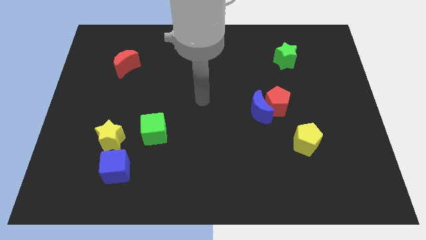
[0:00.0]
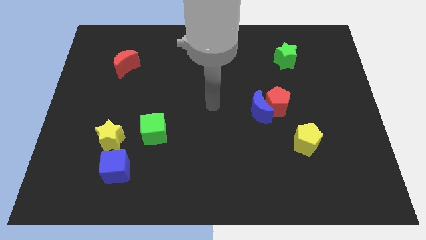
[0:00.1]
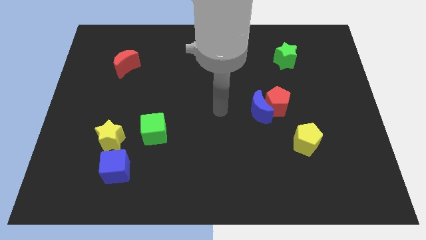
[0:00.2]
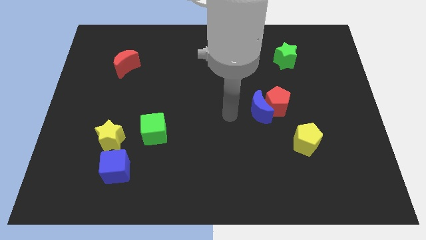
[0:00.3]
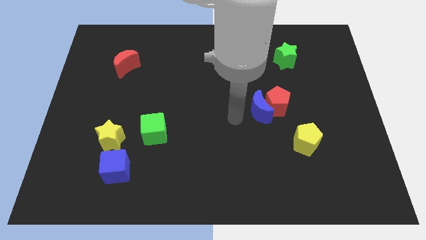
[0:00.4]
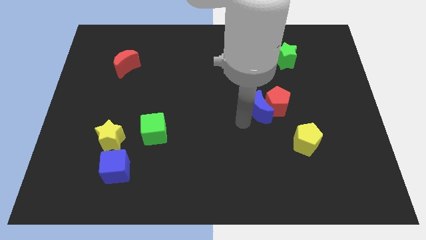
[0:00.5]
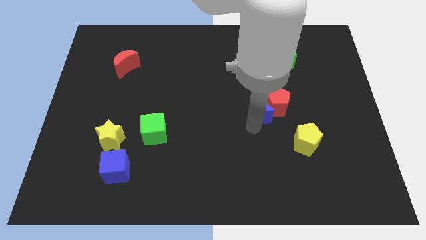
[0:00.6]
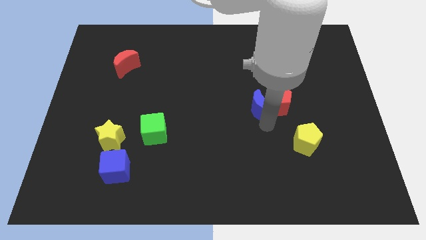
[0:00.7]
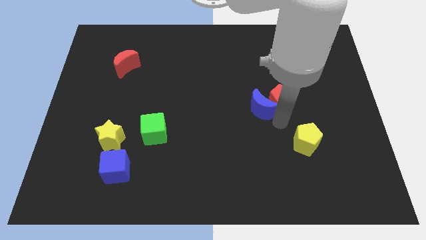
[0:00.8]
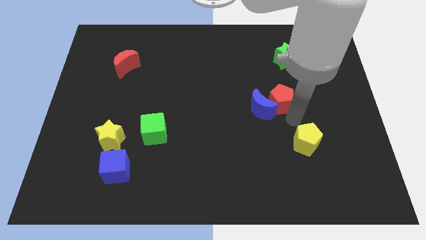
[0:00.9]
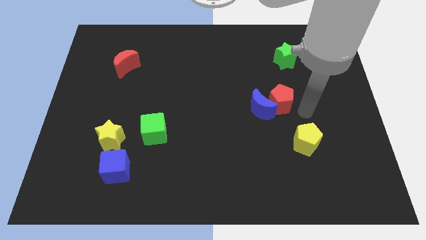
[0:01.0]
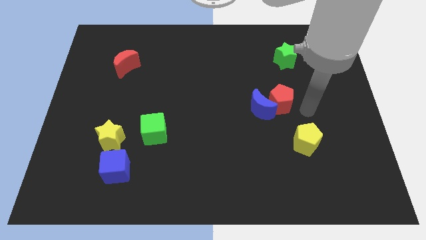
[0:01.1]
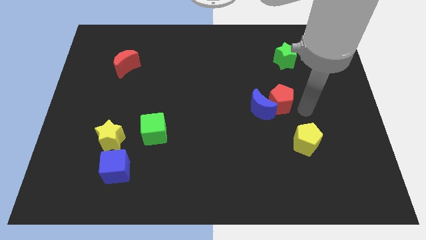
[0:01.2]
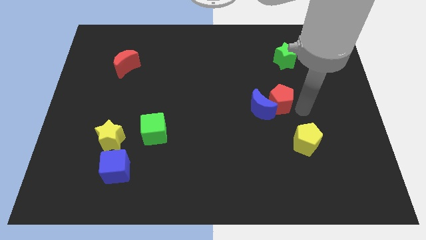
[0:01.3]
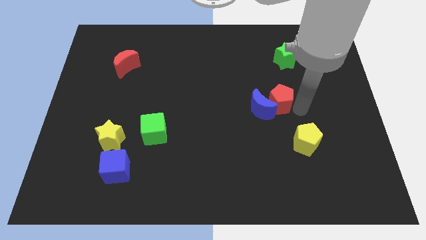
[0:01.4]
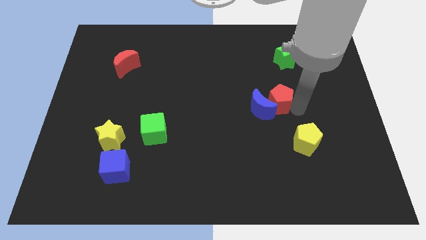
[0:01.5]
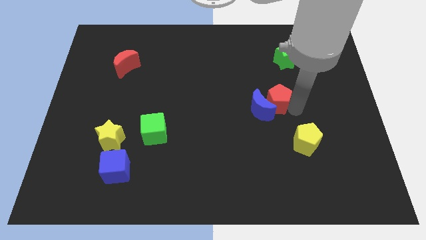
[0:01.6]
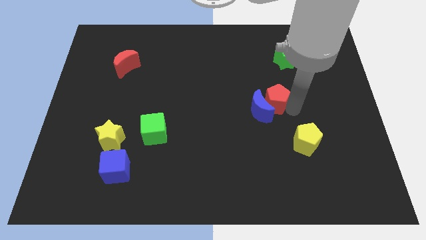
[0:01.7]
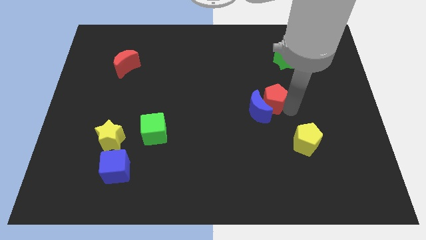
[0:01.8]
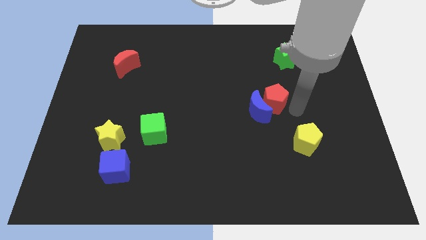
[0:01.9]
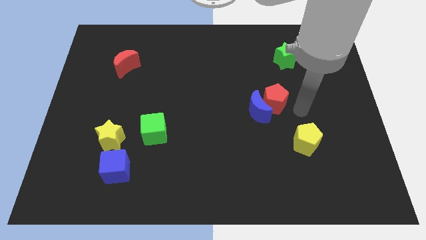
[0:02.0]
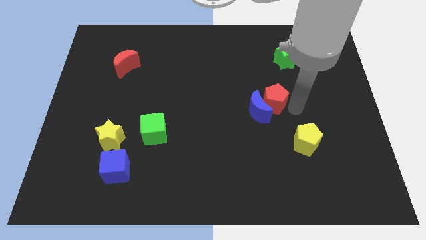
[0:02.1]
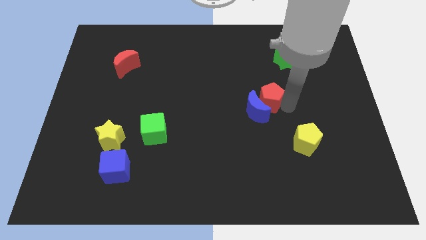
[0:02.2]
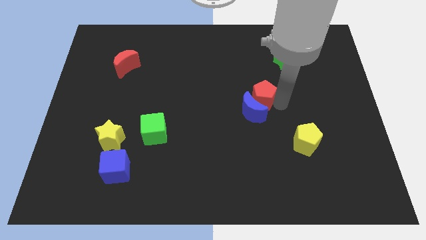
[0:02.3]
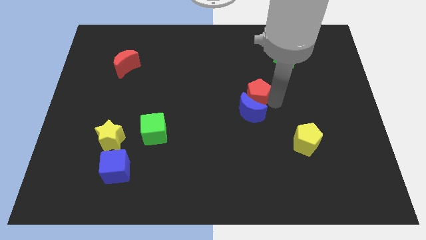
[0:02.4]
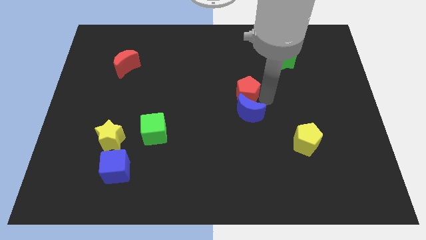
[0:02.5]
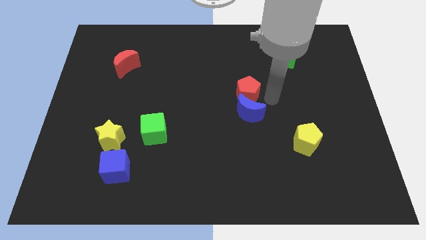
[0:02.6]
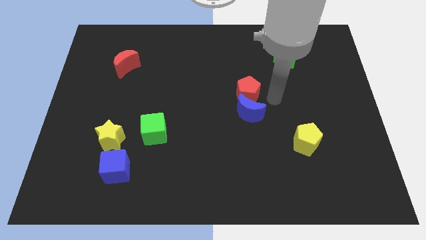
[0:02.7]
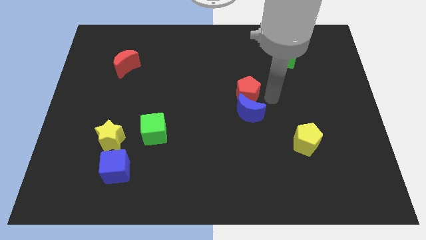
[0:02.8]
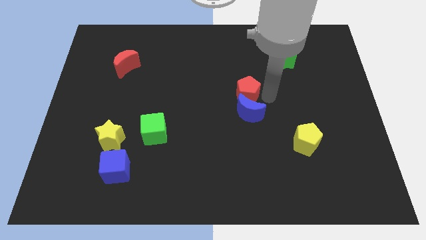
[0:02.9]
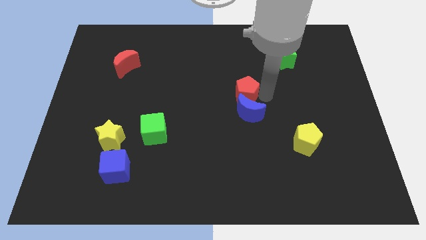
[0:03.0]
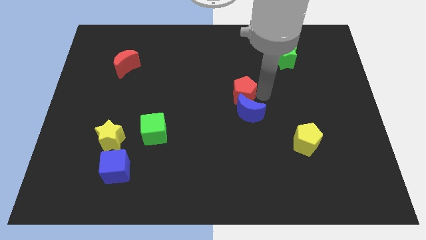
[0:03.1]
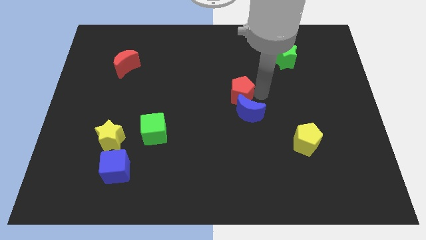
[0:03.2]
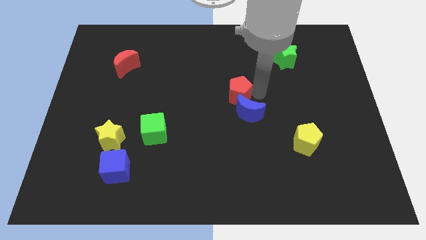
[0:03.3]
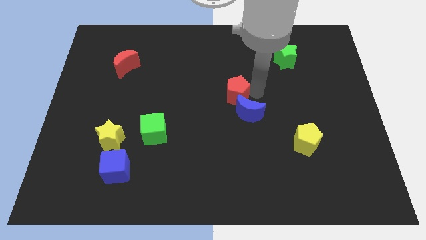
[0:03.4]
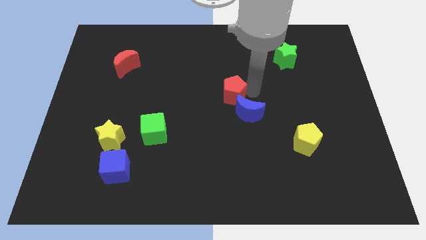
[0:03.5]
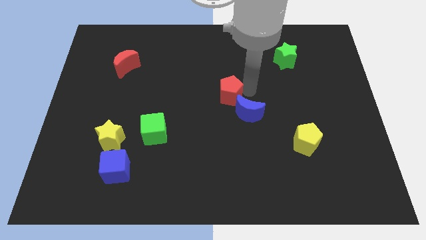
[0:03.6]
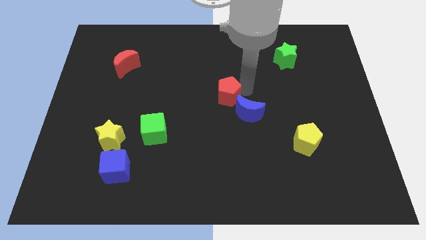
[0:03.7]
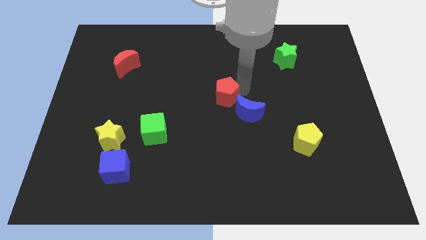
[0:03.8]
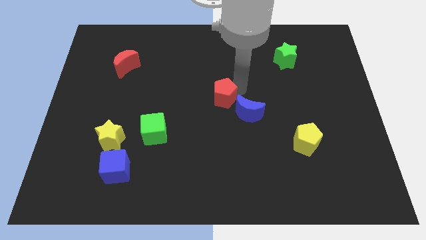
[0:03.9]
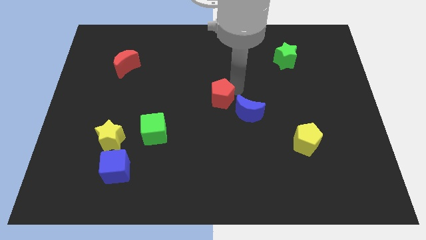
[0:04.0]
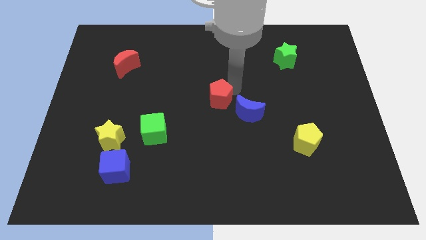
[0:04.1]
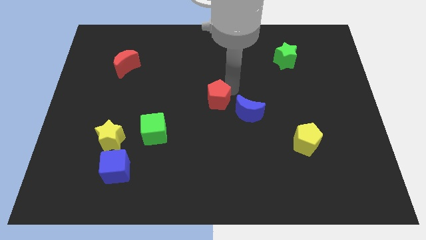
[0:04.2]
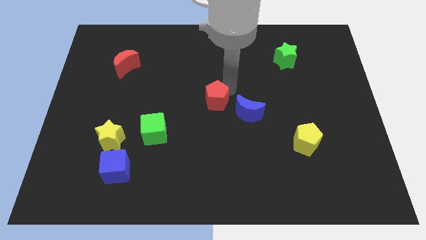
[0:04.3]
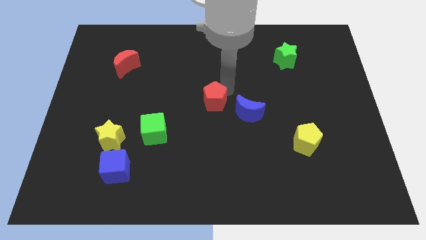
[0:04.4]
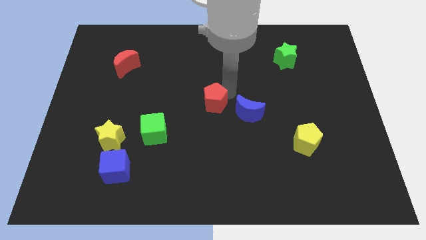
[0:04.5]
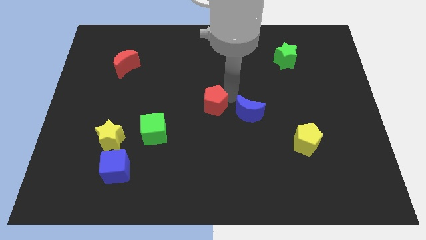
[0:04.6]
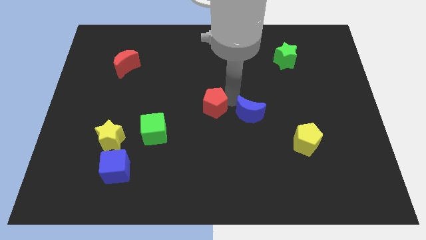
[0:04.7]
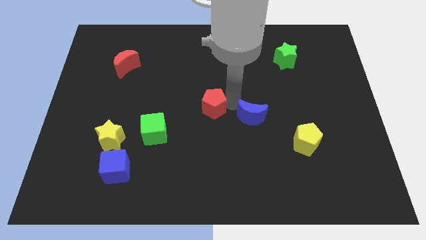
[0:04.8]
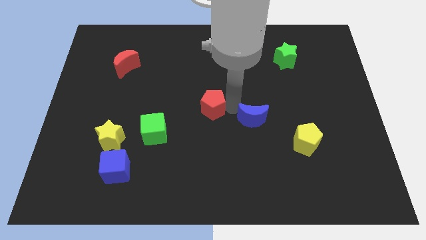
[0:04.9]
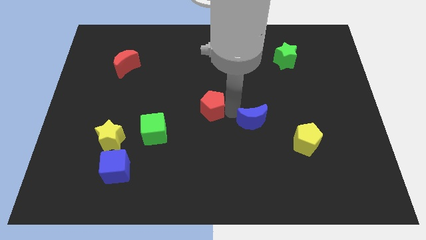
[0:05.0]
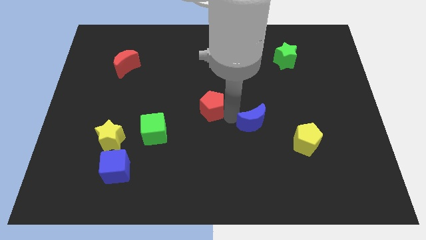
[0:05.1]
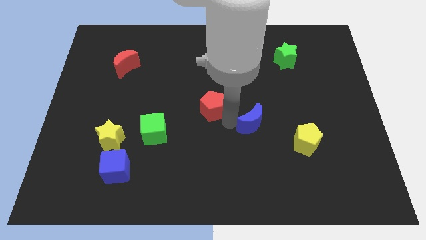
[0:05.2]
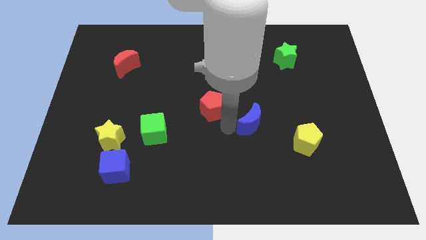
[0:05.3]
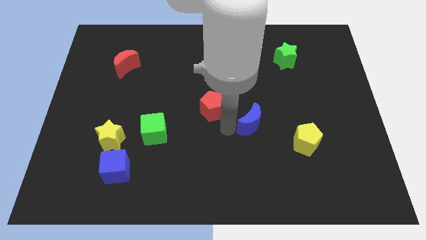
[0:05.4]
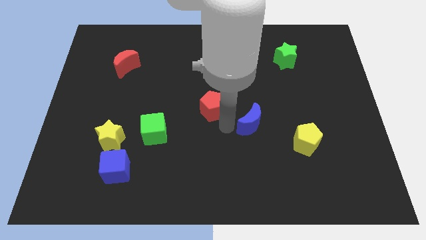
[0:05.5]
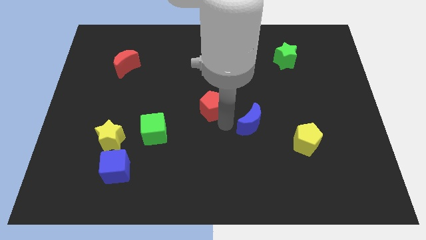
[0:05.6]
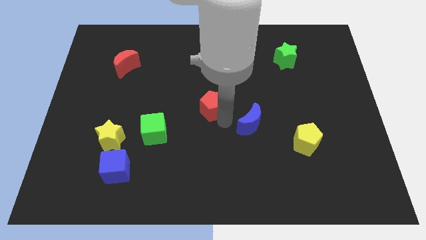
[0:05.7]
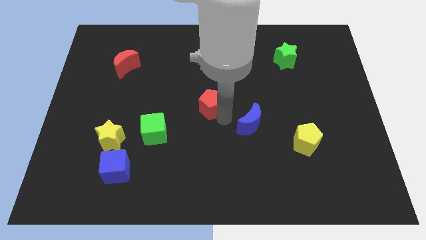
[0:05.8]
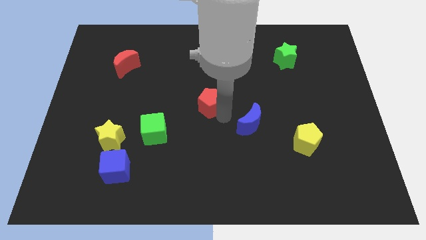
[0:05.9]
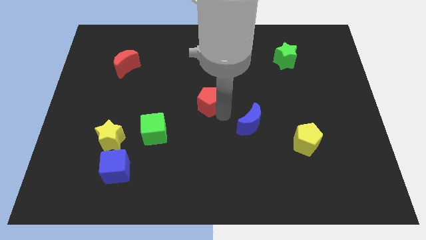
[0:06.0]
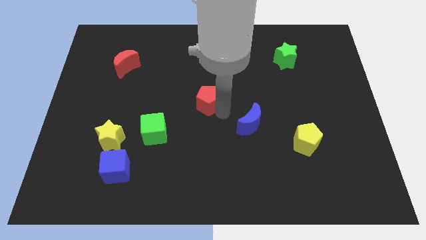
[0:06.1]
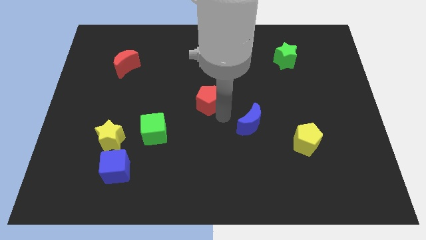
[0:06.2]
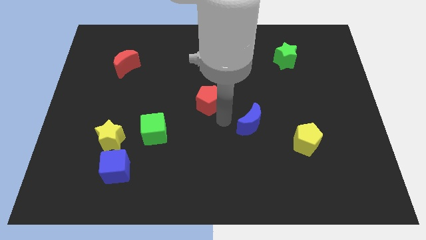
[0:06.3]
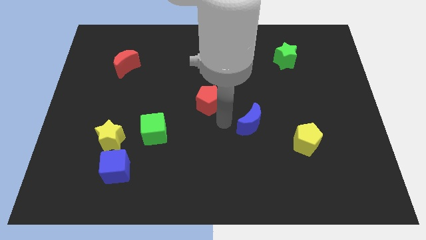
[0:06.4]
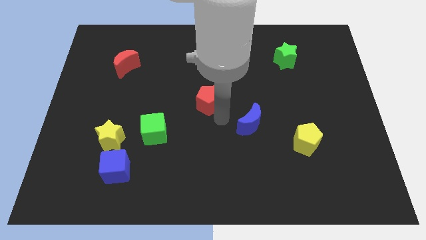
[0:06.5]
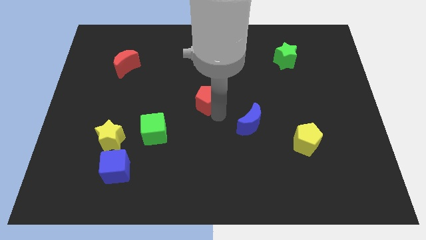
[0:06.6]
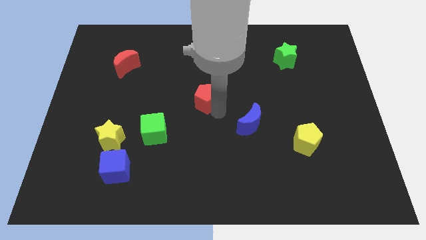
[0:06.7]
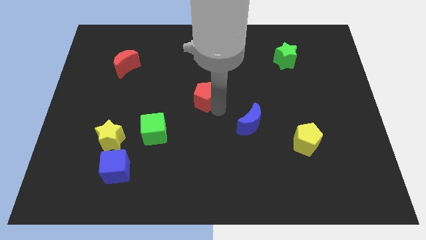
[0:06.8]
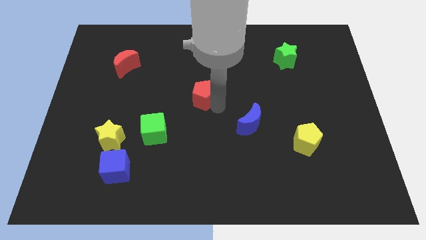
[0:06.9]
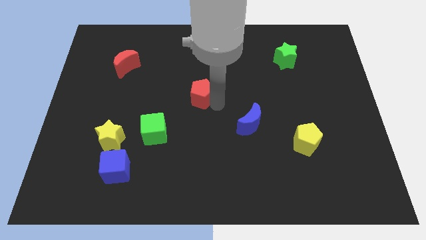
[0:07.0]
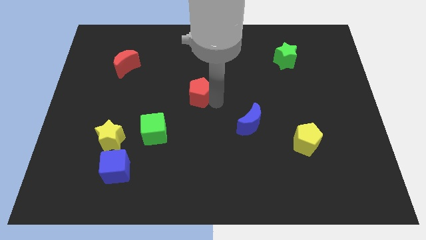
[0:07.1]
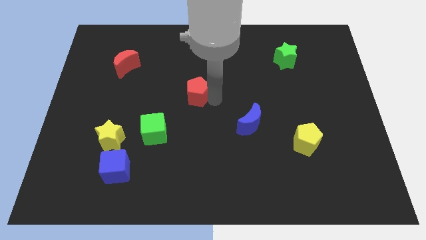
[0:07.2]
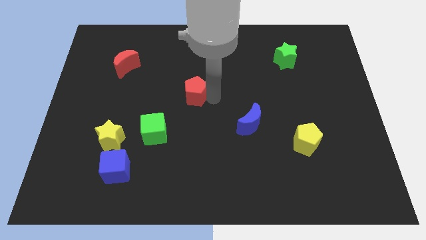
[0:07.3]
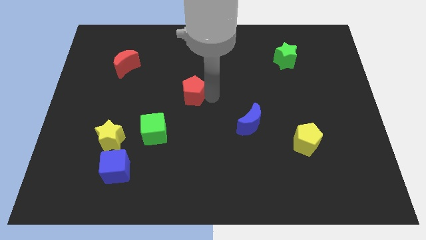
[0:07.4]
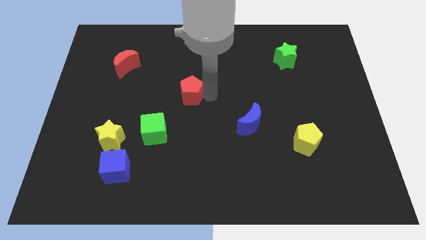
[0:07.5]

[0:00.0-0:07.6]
push the red pentagon to the left

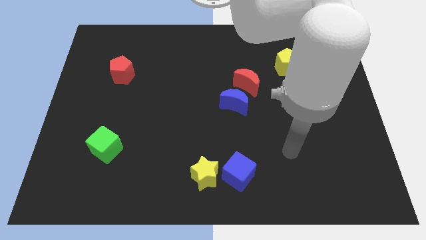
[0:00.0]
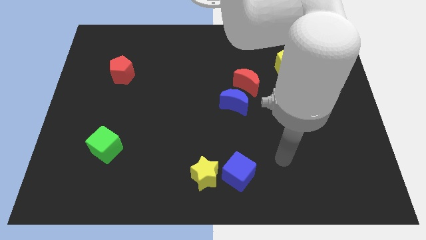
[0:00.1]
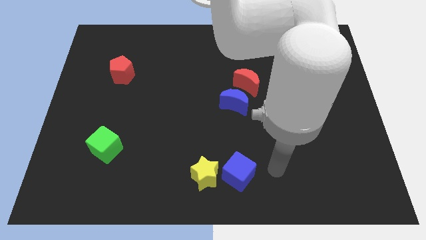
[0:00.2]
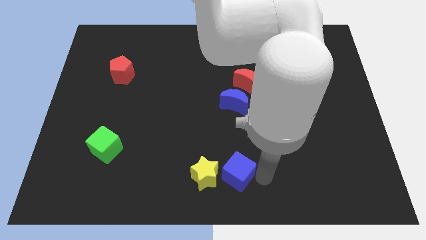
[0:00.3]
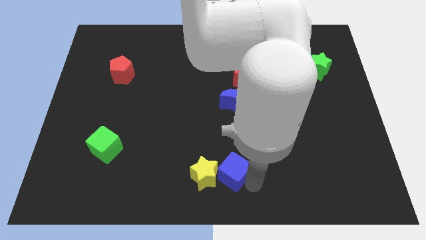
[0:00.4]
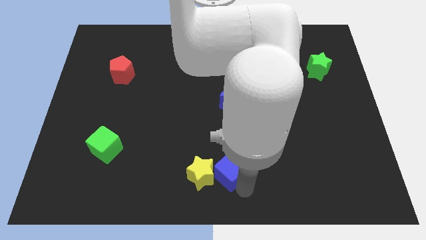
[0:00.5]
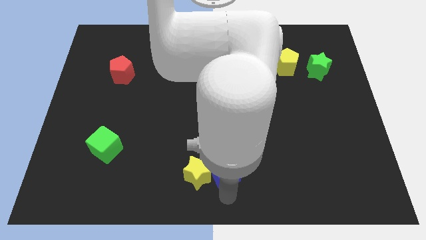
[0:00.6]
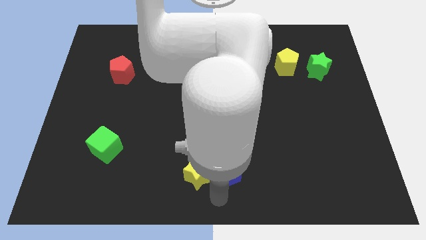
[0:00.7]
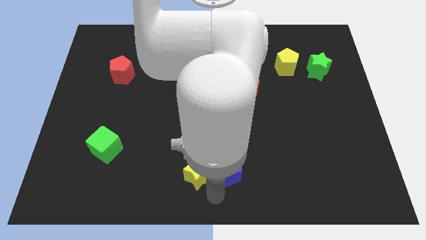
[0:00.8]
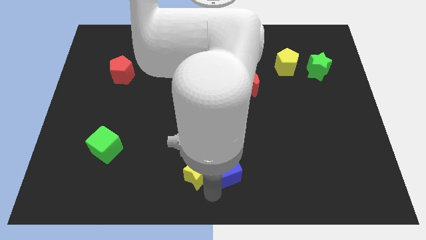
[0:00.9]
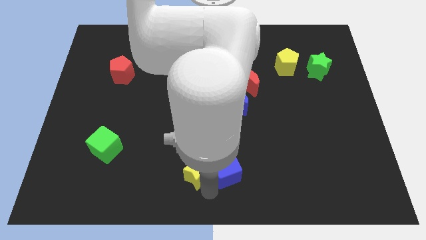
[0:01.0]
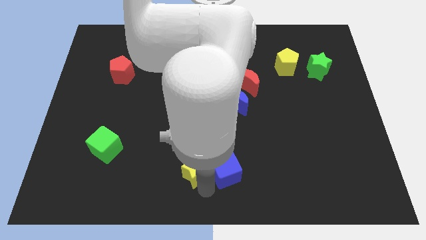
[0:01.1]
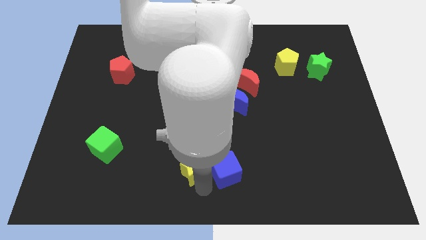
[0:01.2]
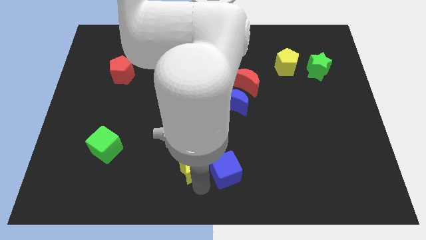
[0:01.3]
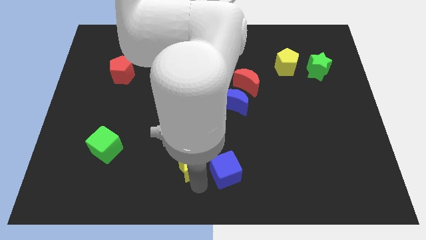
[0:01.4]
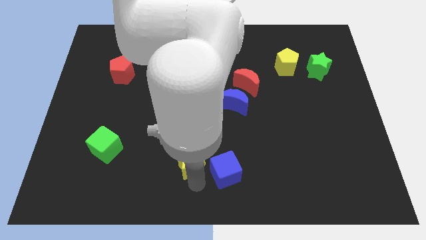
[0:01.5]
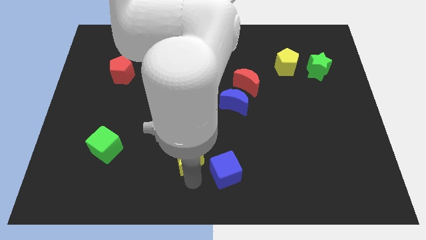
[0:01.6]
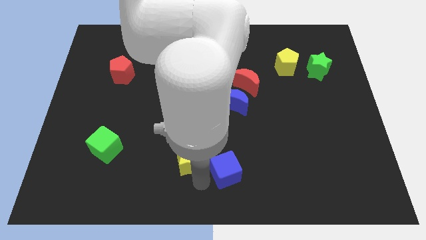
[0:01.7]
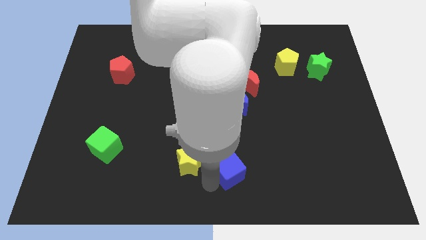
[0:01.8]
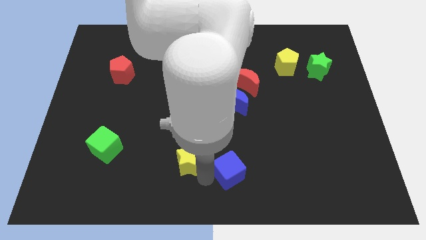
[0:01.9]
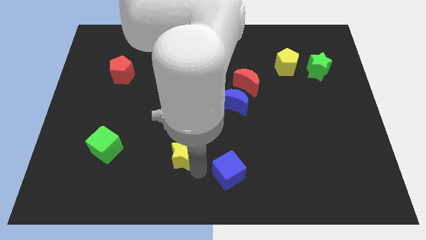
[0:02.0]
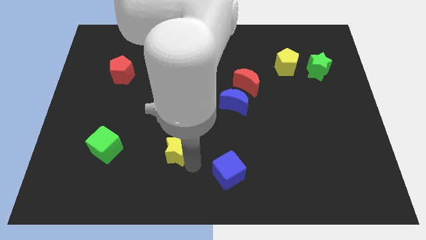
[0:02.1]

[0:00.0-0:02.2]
slightly move the yellow star upwards and left diagonally
